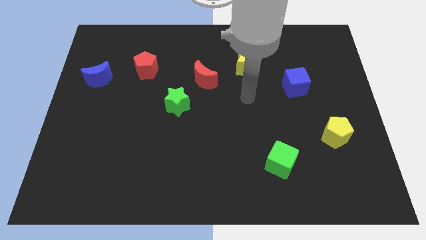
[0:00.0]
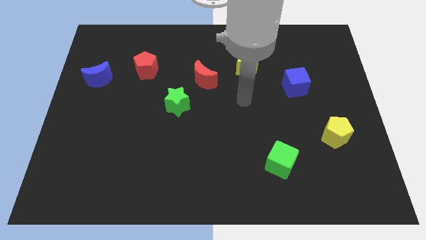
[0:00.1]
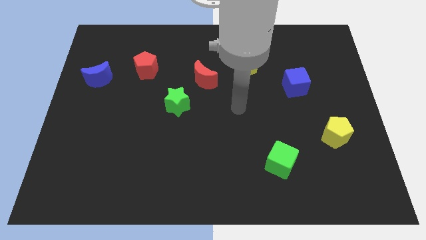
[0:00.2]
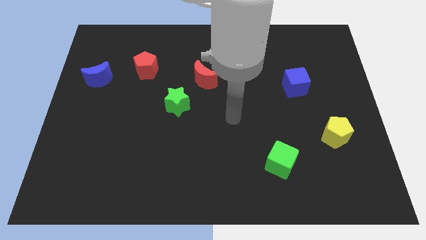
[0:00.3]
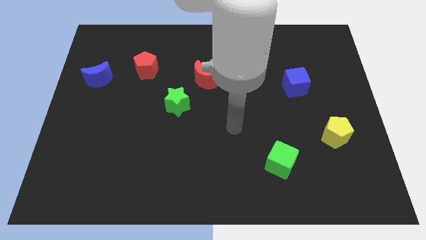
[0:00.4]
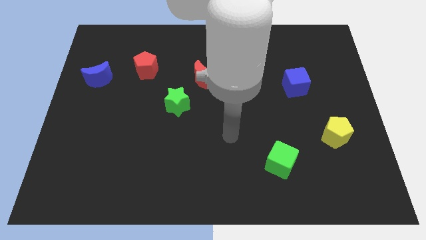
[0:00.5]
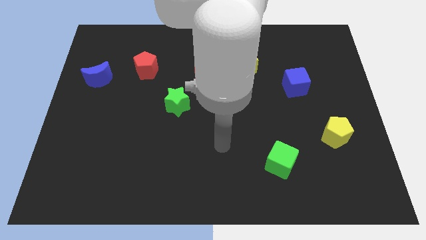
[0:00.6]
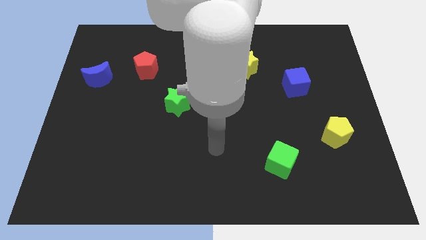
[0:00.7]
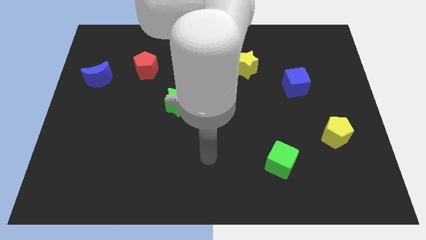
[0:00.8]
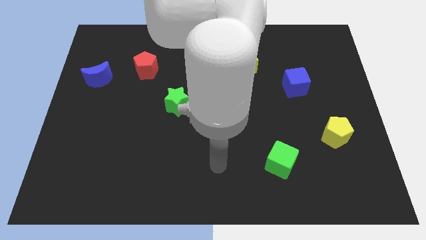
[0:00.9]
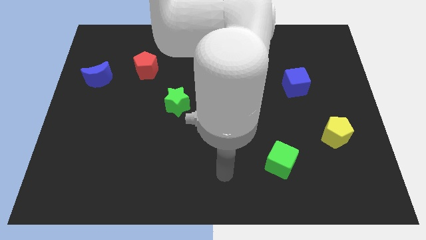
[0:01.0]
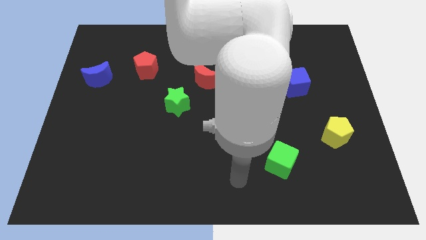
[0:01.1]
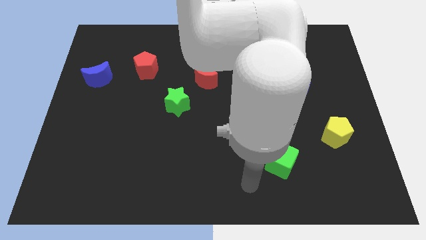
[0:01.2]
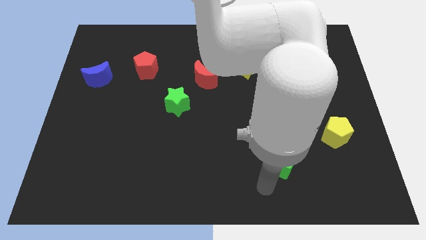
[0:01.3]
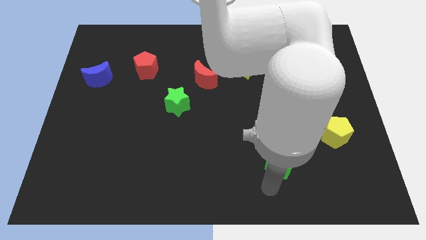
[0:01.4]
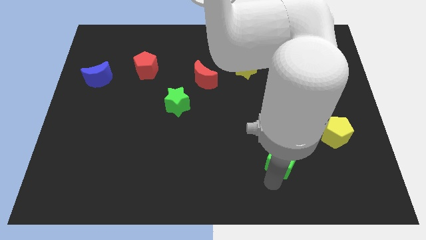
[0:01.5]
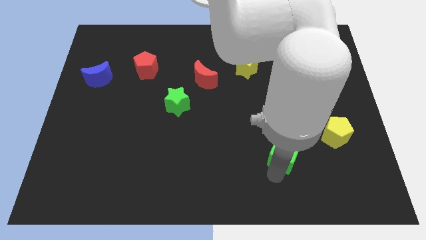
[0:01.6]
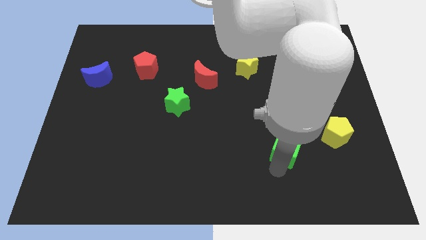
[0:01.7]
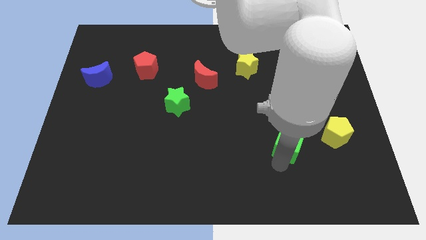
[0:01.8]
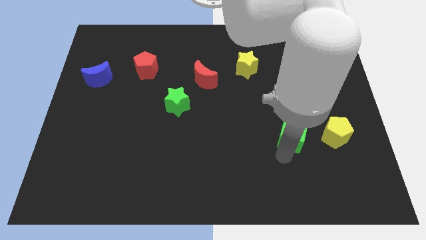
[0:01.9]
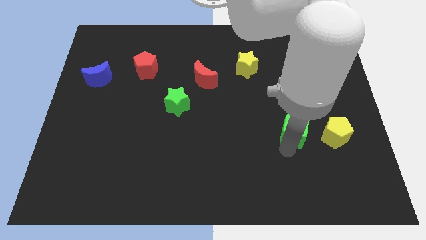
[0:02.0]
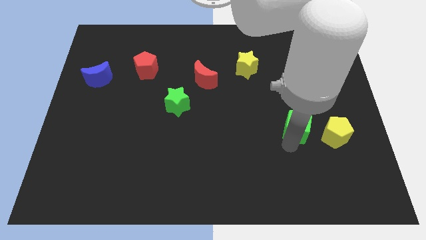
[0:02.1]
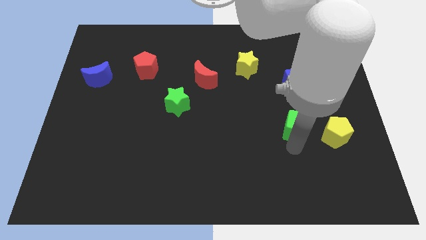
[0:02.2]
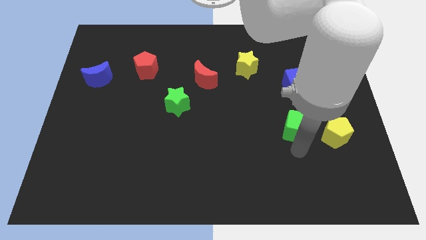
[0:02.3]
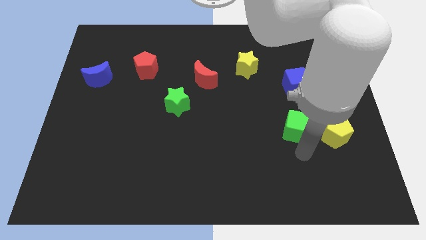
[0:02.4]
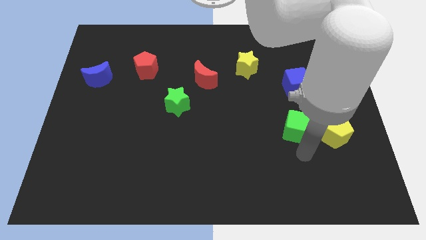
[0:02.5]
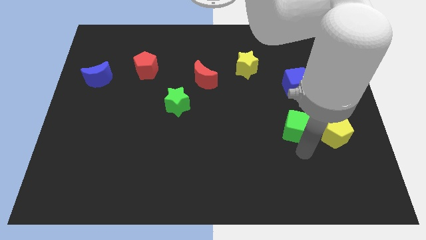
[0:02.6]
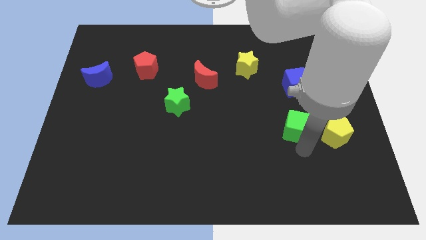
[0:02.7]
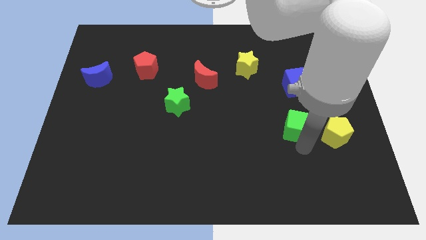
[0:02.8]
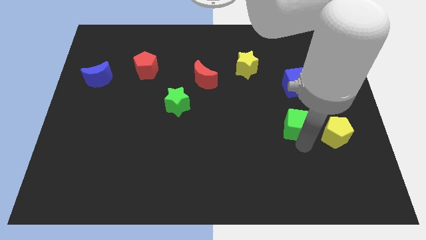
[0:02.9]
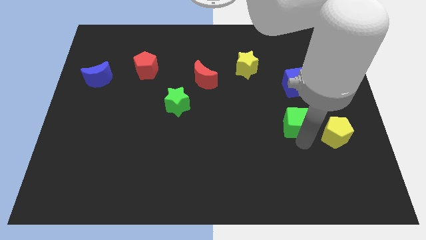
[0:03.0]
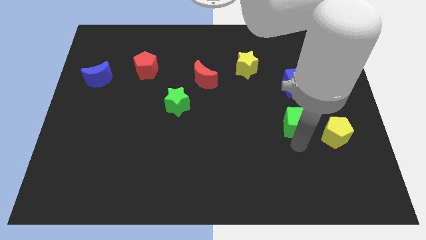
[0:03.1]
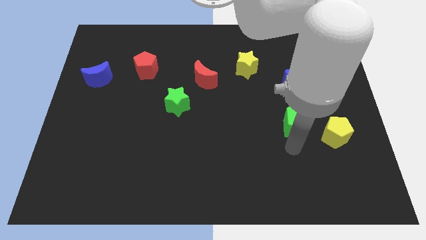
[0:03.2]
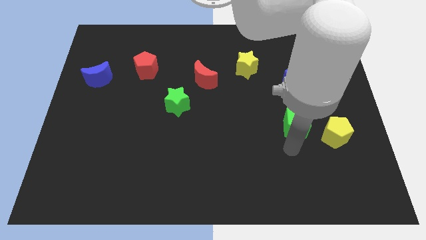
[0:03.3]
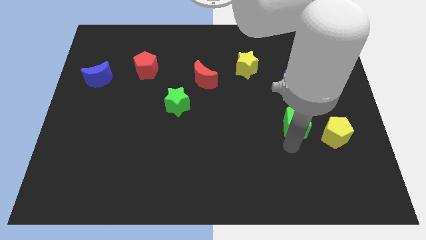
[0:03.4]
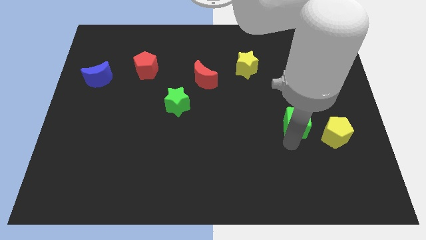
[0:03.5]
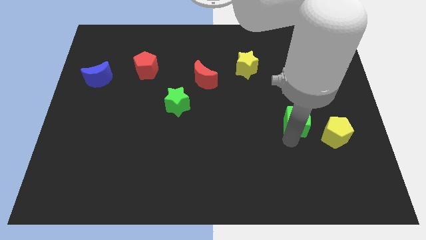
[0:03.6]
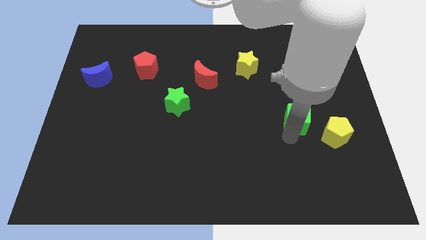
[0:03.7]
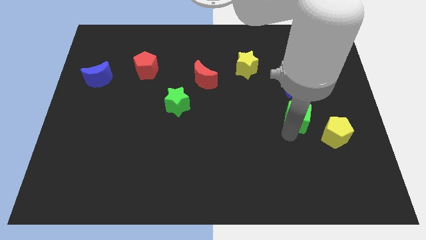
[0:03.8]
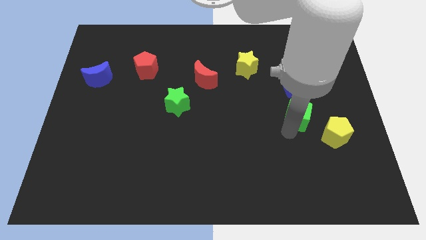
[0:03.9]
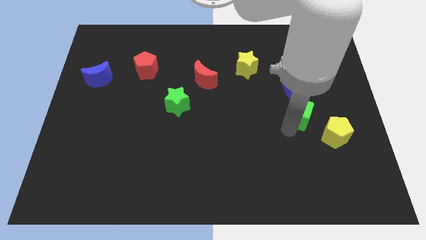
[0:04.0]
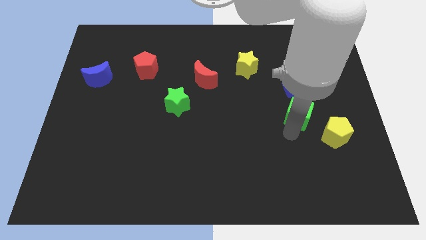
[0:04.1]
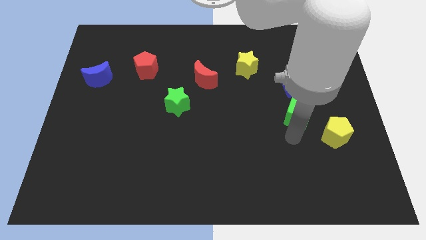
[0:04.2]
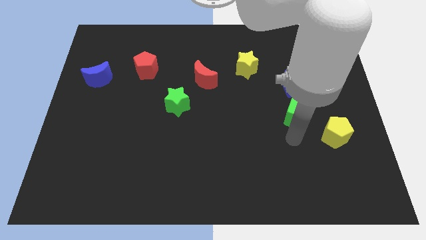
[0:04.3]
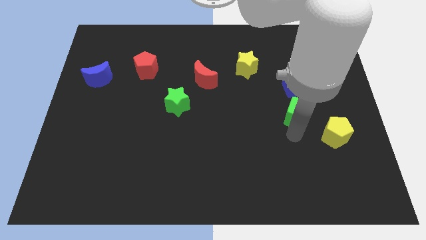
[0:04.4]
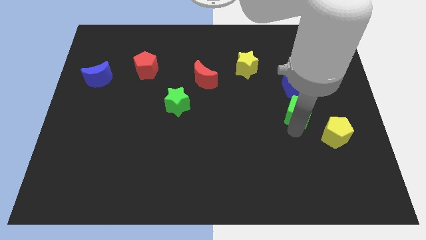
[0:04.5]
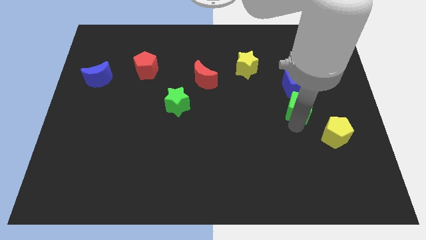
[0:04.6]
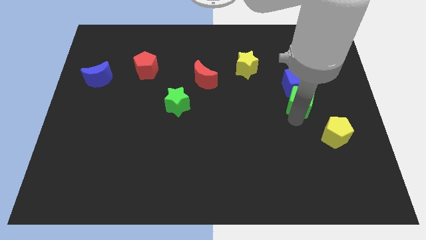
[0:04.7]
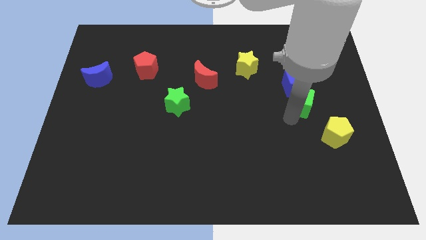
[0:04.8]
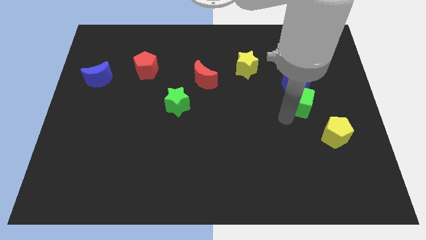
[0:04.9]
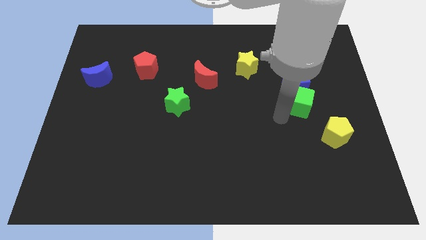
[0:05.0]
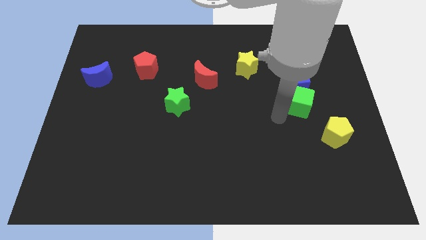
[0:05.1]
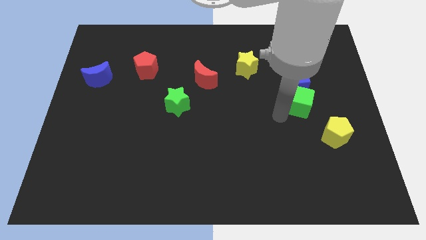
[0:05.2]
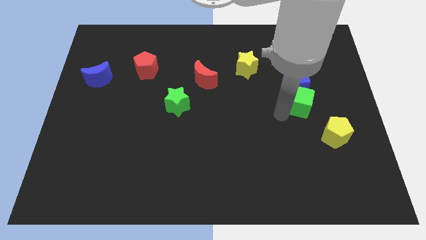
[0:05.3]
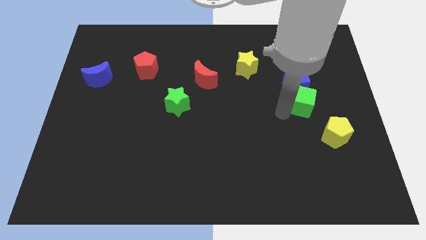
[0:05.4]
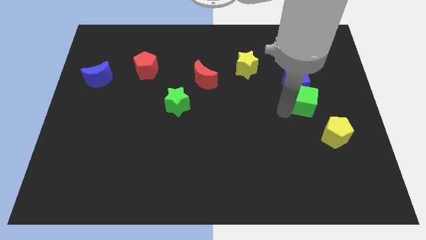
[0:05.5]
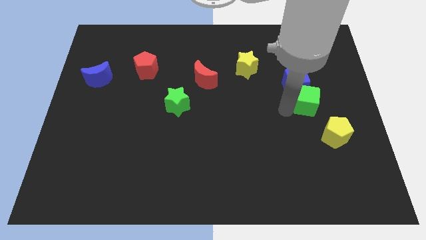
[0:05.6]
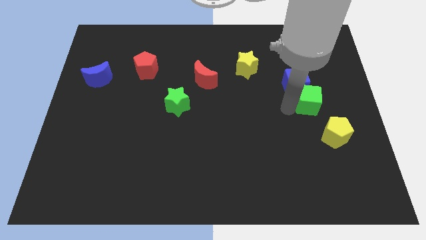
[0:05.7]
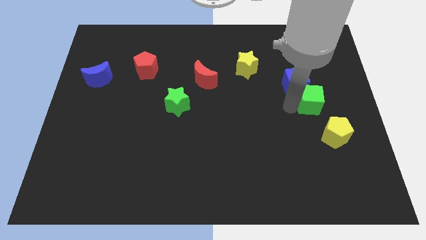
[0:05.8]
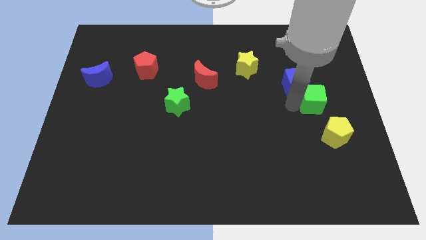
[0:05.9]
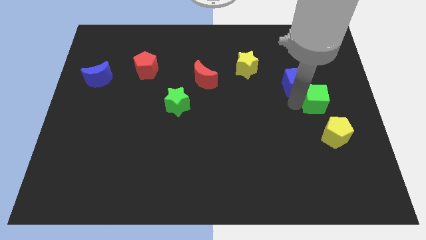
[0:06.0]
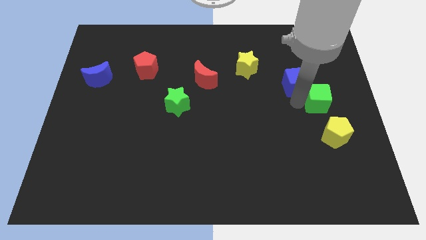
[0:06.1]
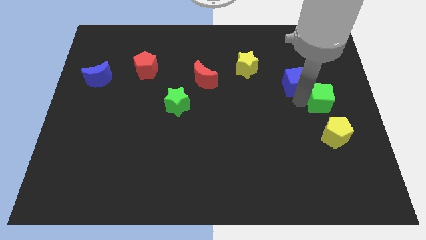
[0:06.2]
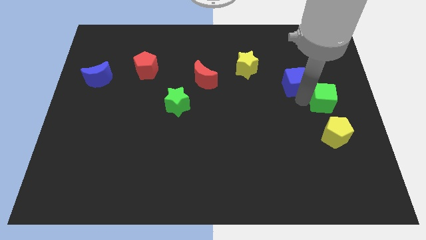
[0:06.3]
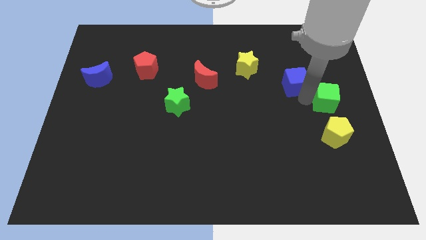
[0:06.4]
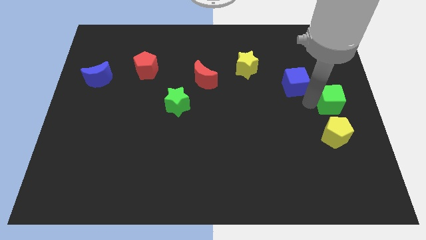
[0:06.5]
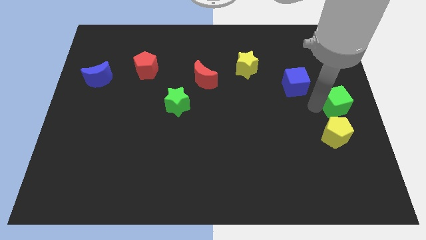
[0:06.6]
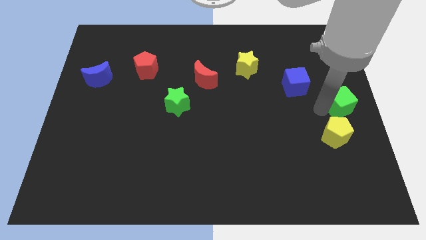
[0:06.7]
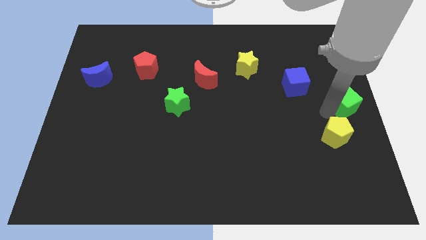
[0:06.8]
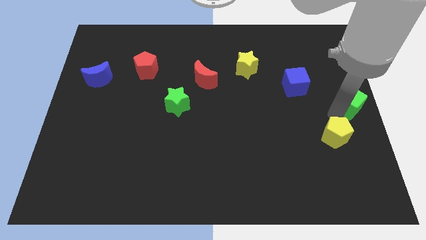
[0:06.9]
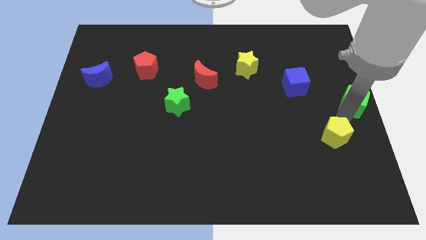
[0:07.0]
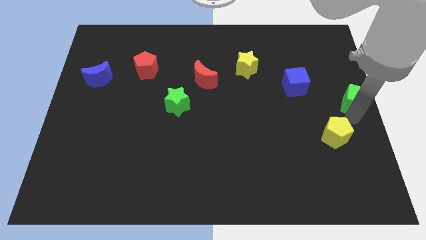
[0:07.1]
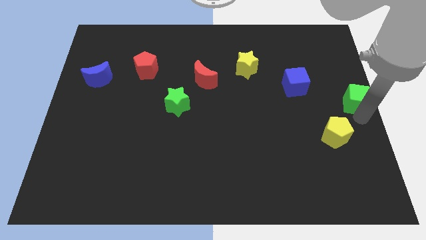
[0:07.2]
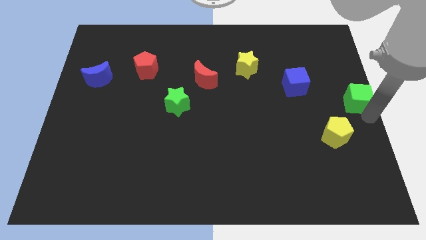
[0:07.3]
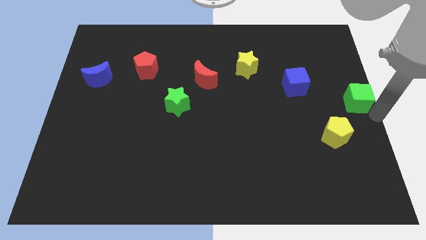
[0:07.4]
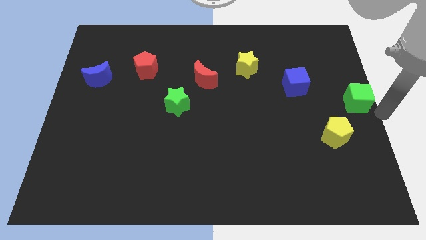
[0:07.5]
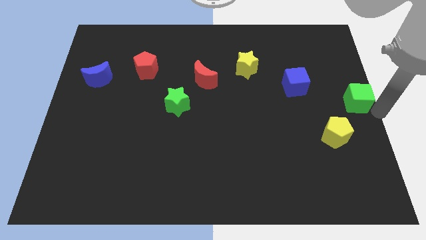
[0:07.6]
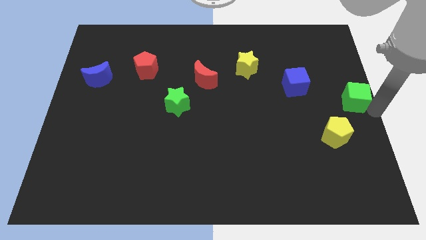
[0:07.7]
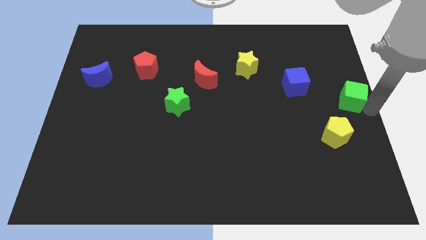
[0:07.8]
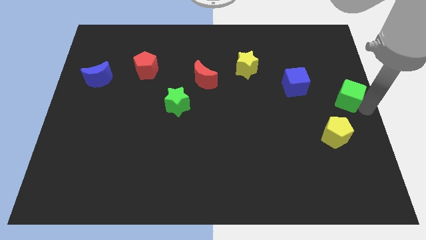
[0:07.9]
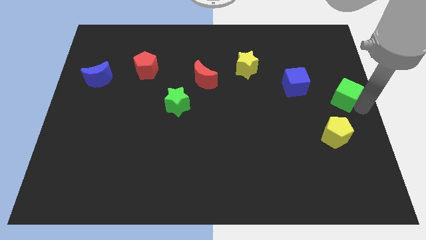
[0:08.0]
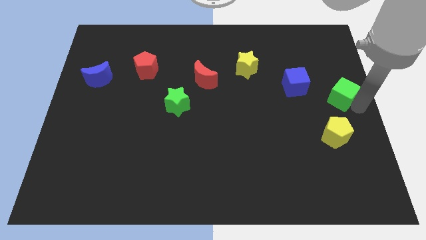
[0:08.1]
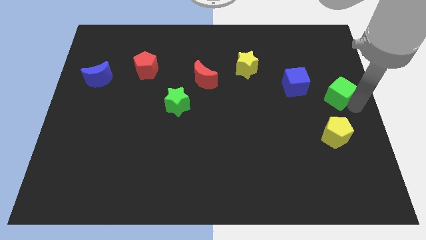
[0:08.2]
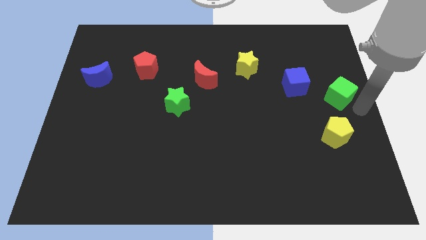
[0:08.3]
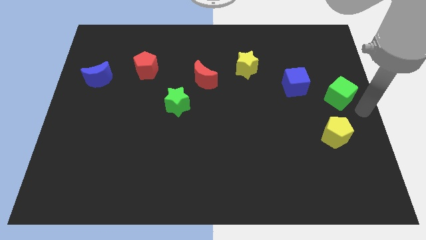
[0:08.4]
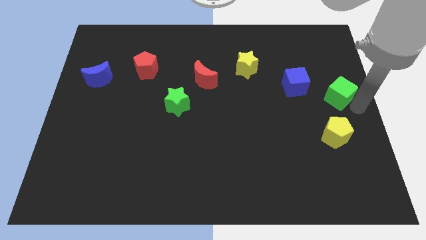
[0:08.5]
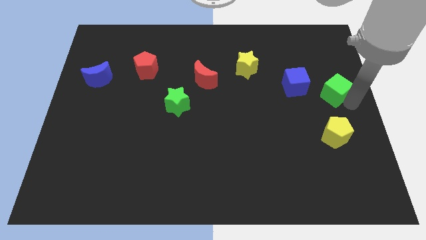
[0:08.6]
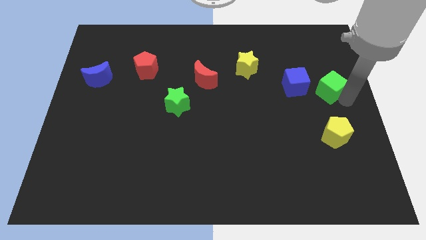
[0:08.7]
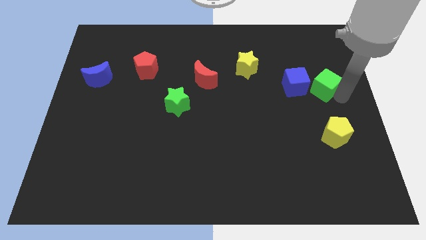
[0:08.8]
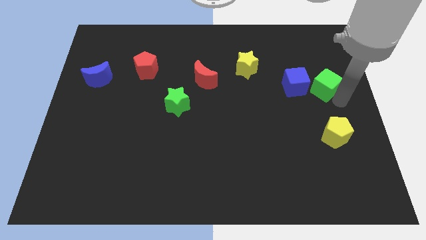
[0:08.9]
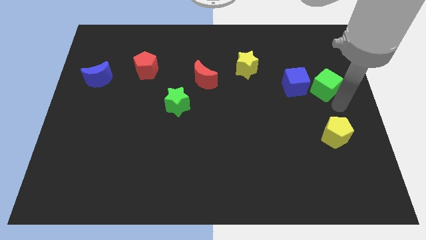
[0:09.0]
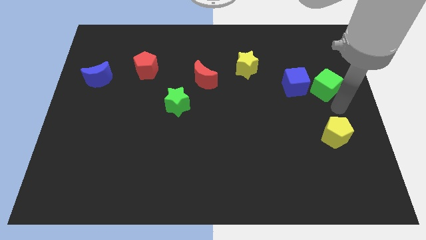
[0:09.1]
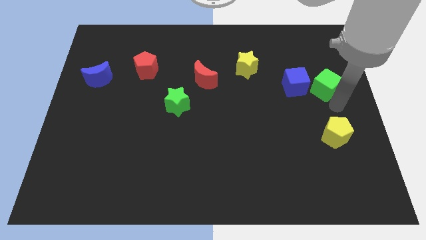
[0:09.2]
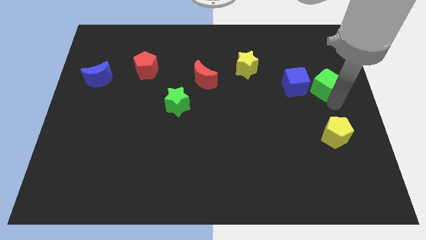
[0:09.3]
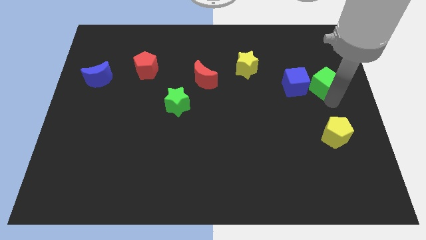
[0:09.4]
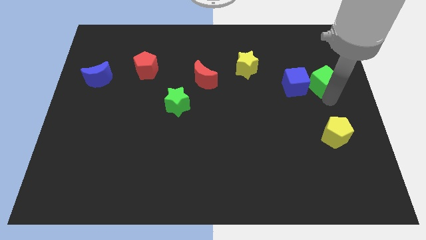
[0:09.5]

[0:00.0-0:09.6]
move the green cube to the top right of the blue cube
